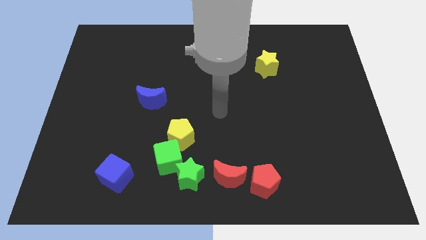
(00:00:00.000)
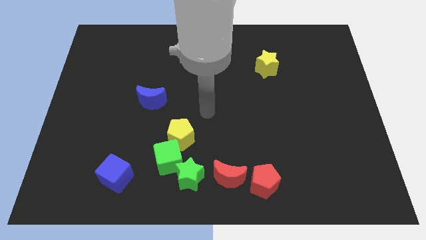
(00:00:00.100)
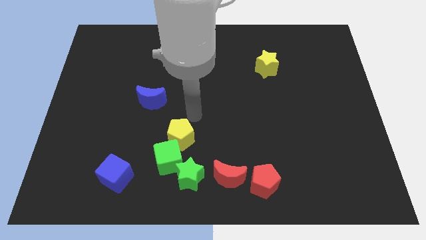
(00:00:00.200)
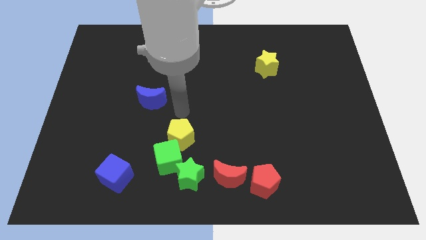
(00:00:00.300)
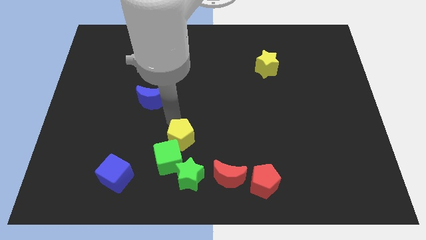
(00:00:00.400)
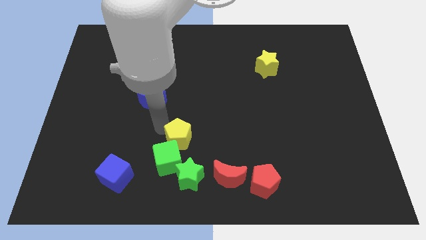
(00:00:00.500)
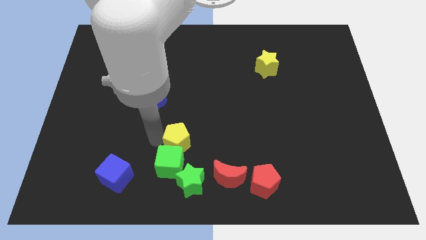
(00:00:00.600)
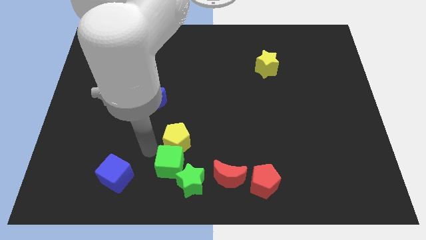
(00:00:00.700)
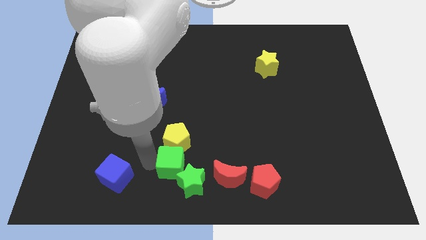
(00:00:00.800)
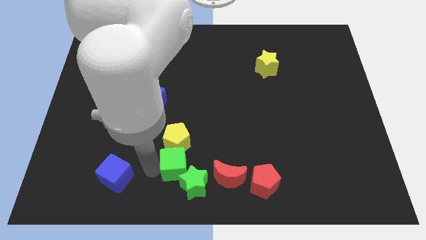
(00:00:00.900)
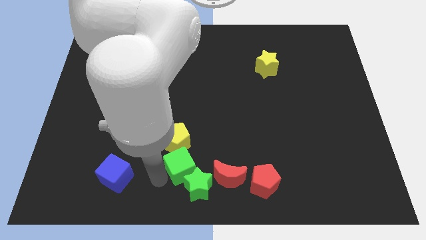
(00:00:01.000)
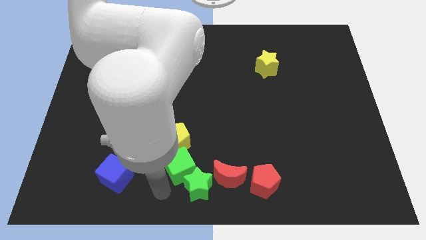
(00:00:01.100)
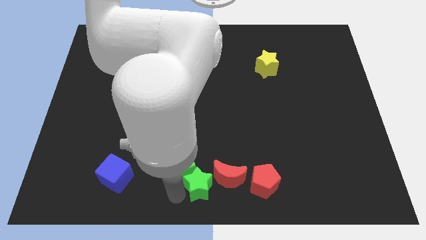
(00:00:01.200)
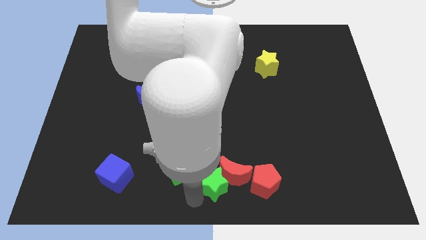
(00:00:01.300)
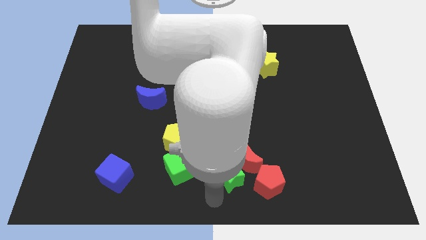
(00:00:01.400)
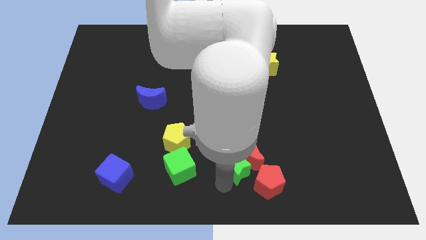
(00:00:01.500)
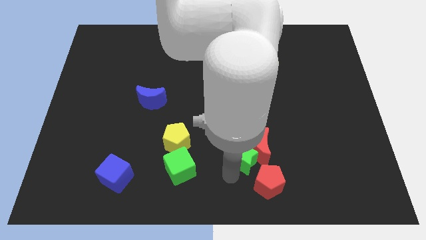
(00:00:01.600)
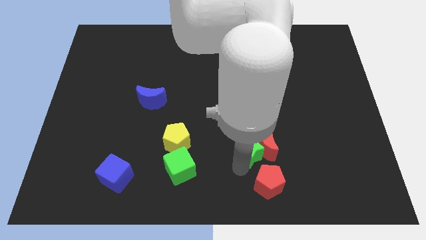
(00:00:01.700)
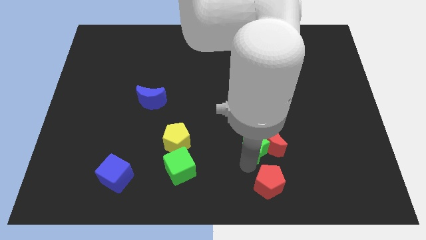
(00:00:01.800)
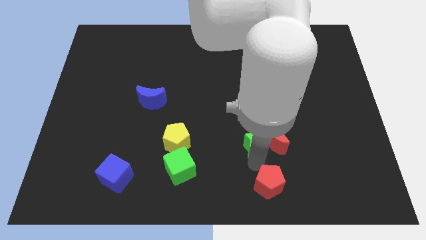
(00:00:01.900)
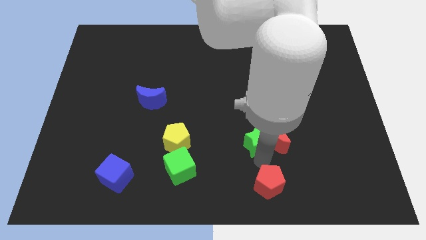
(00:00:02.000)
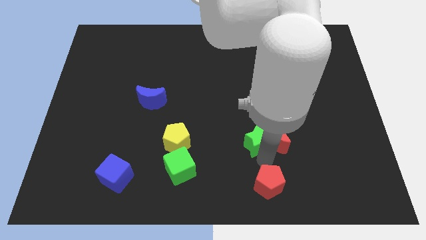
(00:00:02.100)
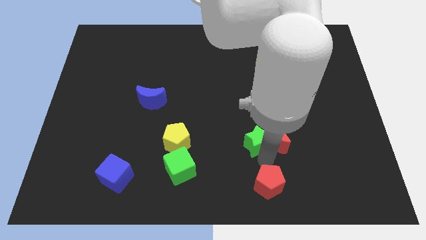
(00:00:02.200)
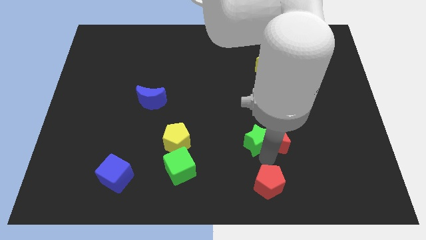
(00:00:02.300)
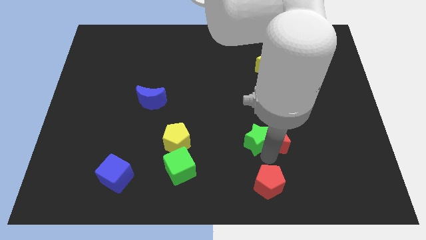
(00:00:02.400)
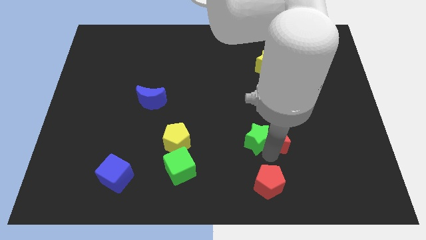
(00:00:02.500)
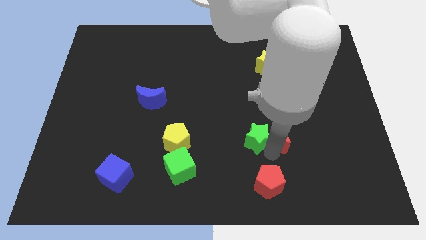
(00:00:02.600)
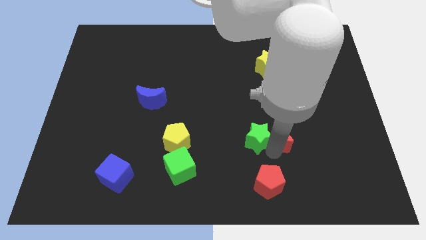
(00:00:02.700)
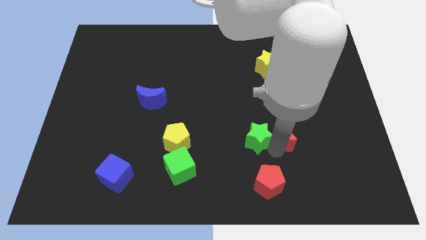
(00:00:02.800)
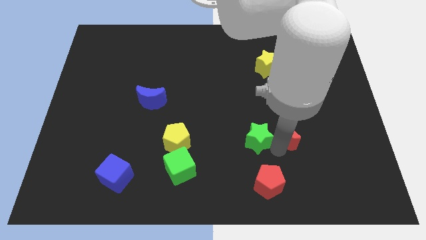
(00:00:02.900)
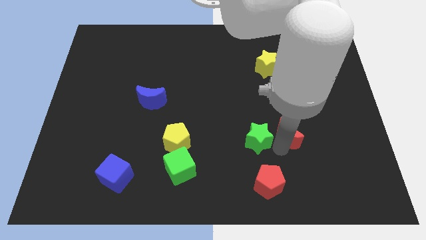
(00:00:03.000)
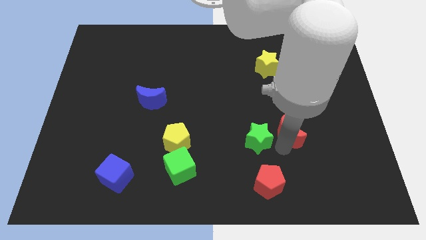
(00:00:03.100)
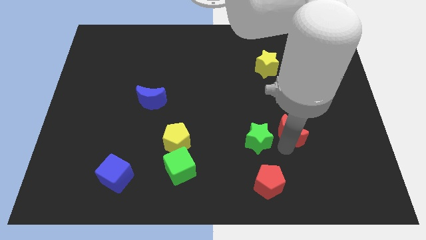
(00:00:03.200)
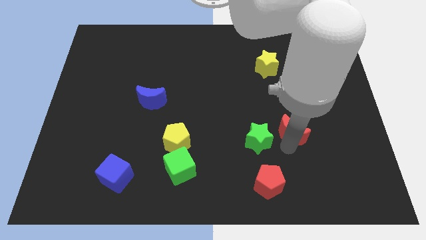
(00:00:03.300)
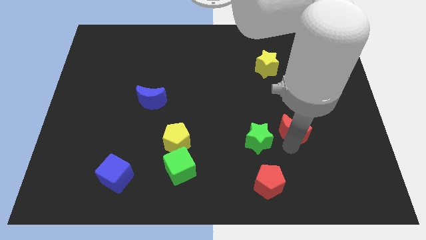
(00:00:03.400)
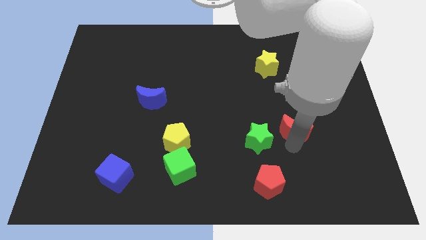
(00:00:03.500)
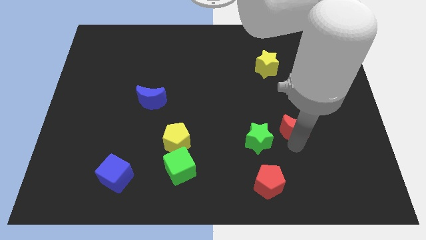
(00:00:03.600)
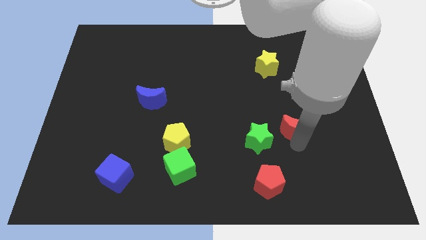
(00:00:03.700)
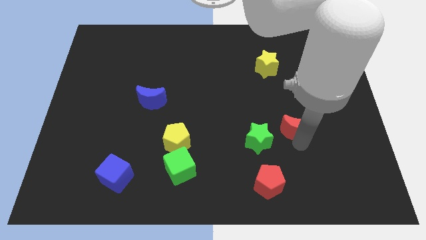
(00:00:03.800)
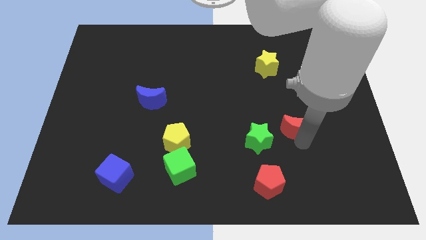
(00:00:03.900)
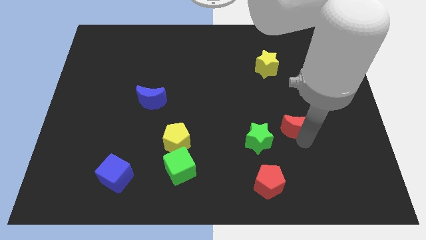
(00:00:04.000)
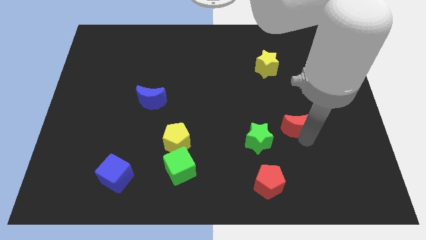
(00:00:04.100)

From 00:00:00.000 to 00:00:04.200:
slide the red moon up and right diagonally

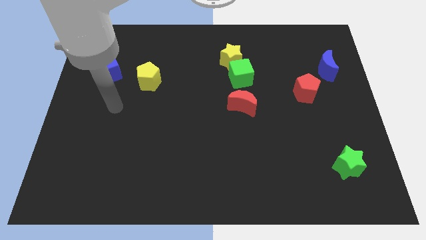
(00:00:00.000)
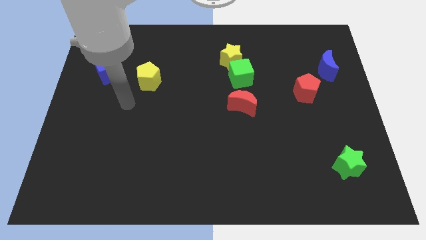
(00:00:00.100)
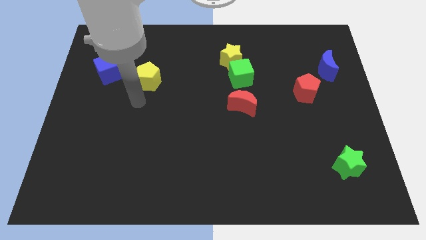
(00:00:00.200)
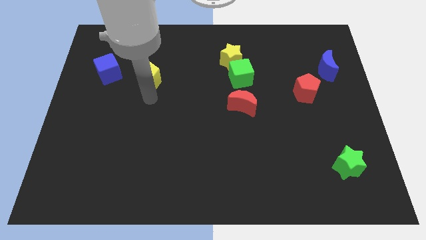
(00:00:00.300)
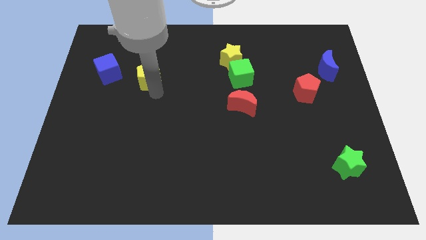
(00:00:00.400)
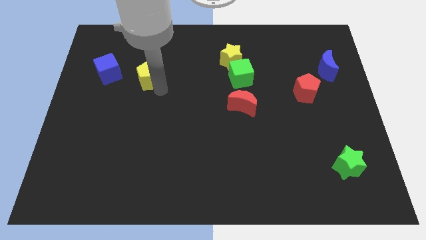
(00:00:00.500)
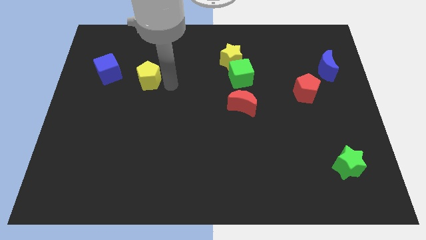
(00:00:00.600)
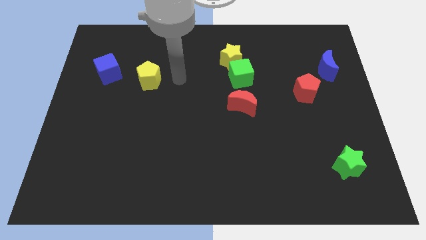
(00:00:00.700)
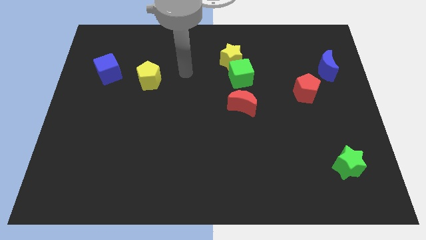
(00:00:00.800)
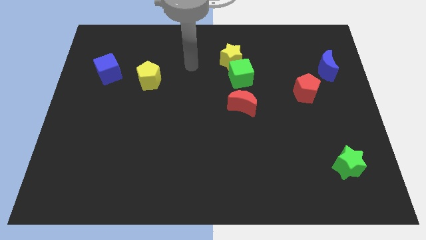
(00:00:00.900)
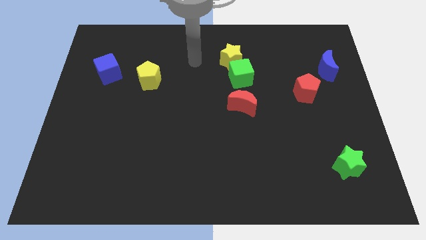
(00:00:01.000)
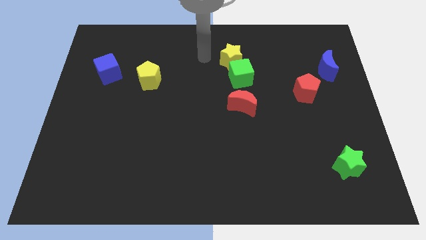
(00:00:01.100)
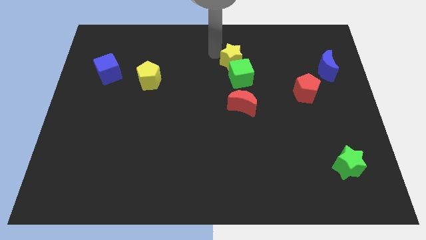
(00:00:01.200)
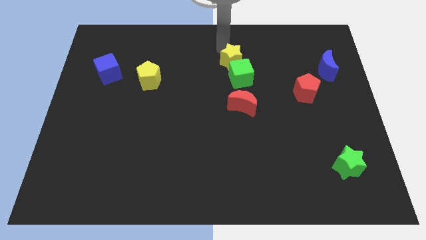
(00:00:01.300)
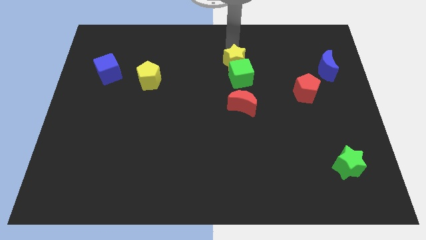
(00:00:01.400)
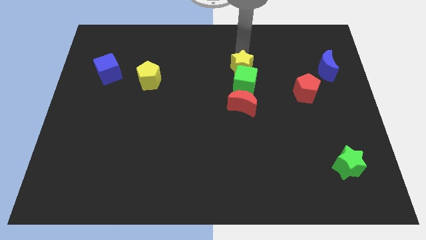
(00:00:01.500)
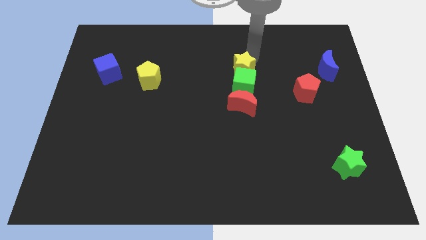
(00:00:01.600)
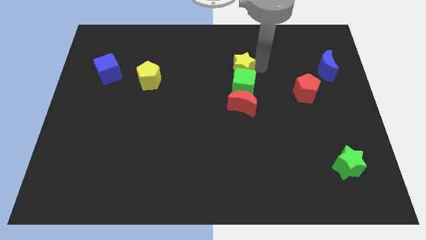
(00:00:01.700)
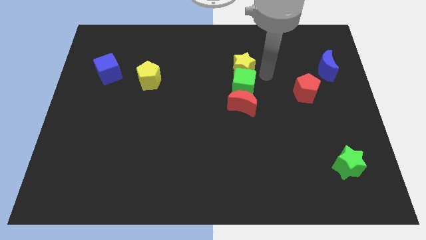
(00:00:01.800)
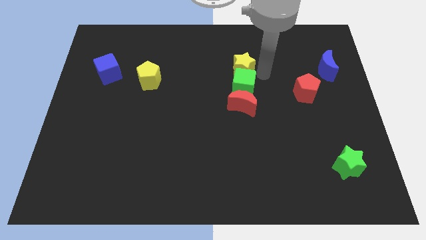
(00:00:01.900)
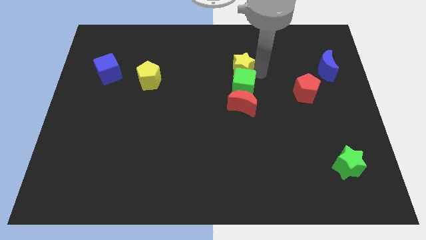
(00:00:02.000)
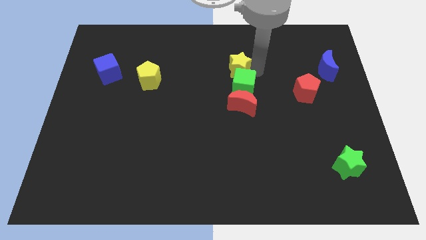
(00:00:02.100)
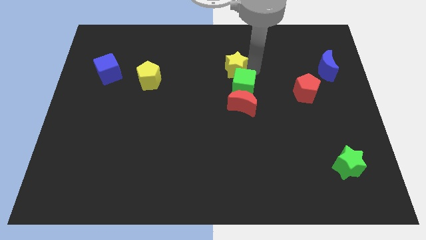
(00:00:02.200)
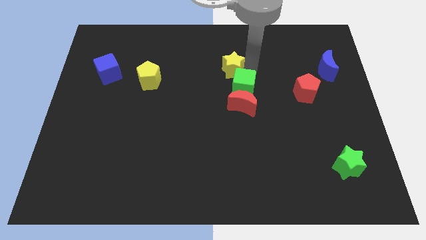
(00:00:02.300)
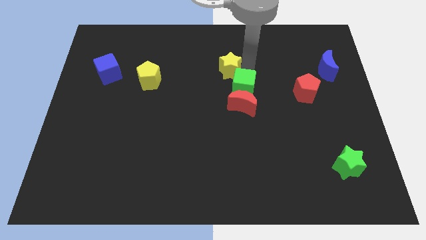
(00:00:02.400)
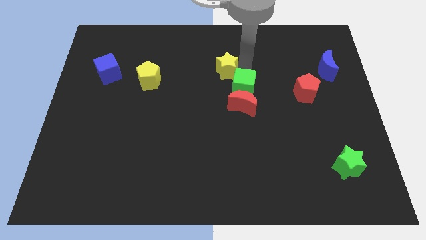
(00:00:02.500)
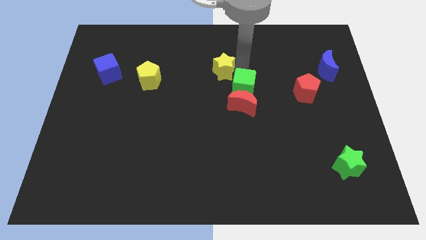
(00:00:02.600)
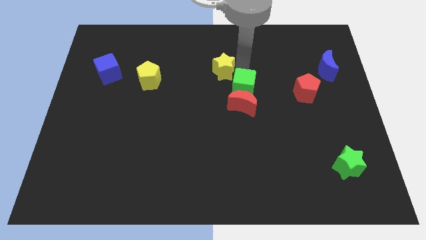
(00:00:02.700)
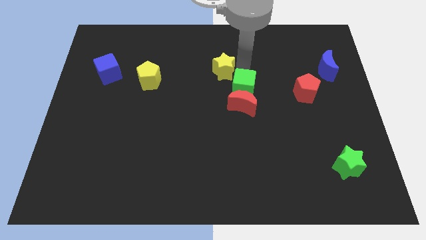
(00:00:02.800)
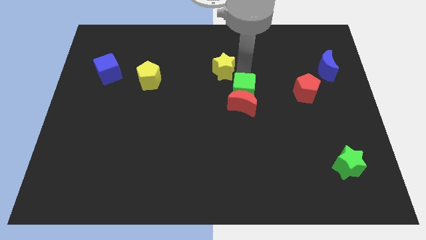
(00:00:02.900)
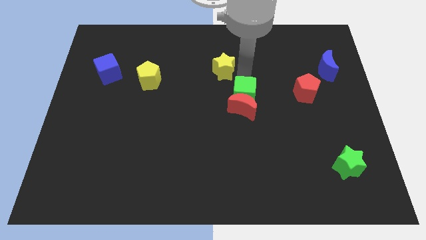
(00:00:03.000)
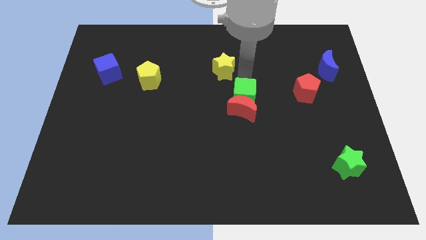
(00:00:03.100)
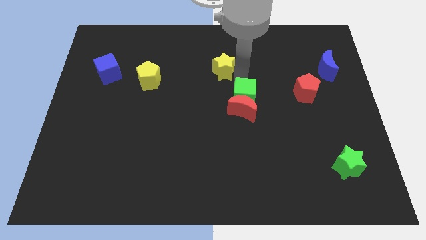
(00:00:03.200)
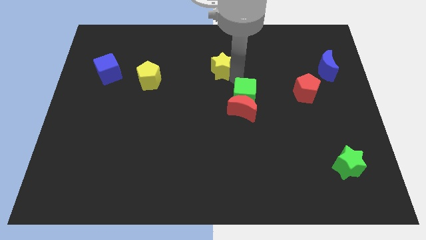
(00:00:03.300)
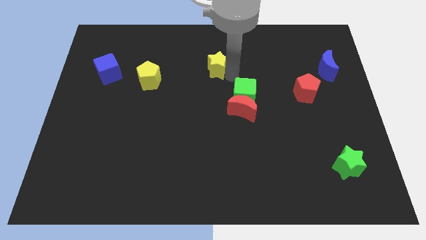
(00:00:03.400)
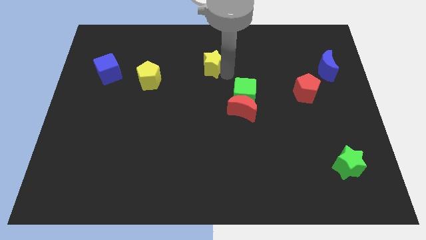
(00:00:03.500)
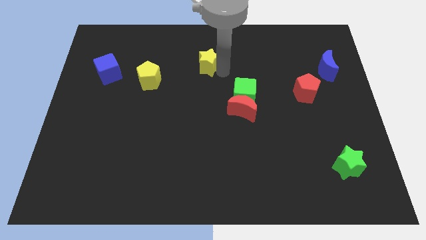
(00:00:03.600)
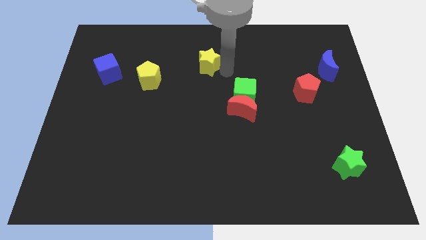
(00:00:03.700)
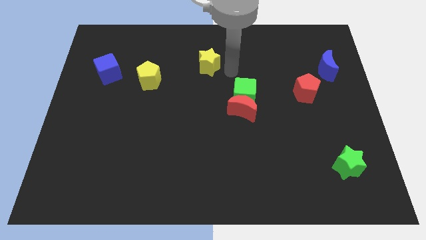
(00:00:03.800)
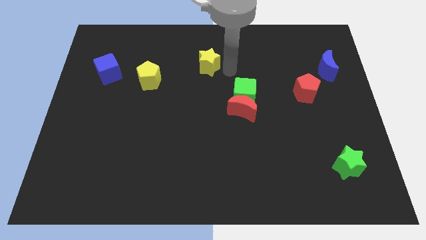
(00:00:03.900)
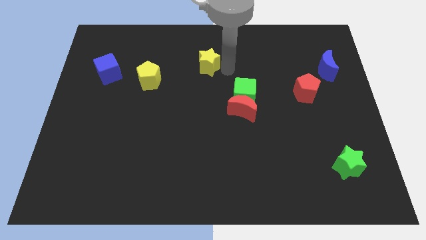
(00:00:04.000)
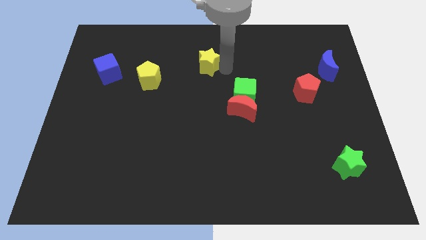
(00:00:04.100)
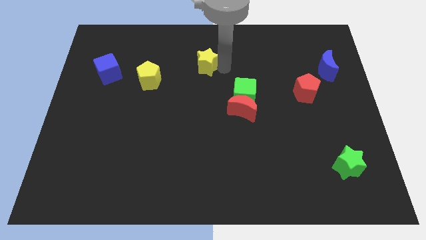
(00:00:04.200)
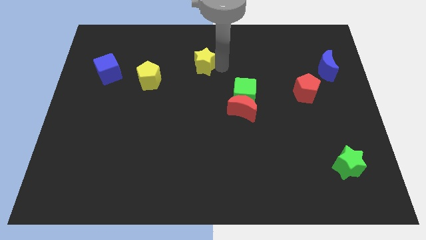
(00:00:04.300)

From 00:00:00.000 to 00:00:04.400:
move the yellow star a little left
